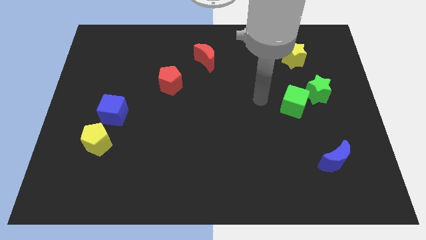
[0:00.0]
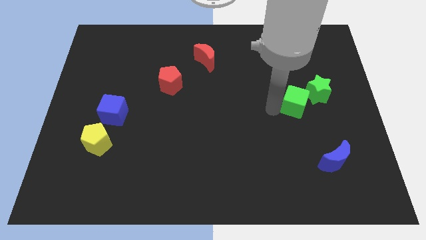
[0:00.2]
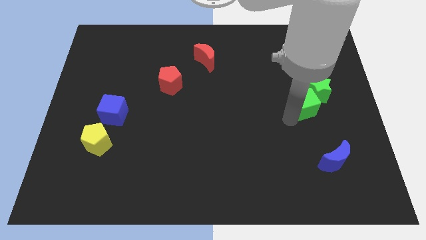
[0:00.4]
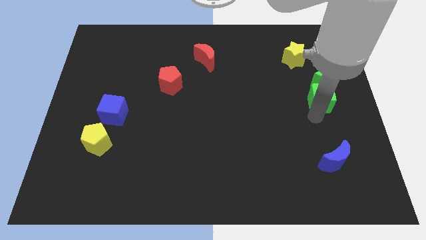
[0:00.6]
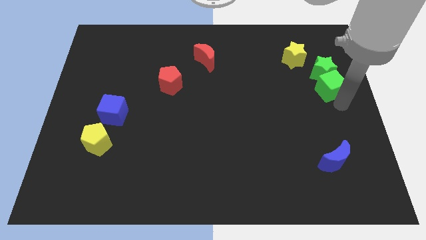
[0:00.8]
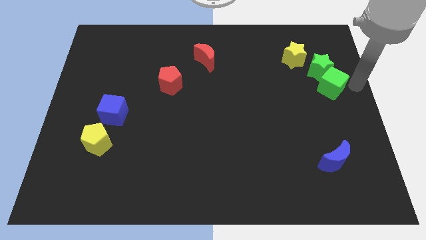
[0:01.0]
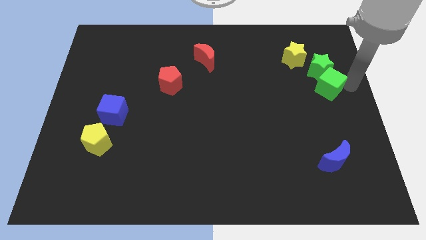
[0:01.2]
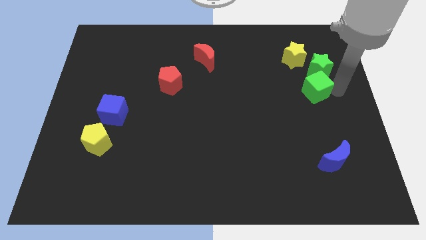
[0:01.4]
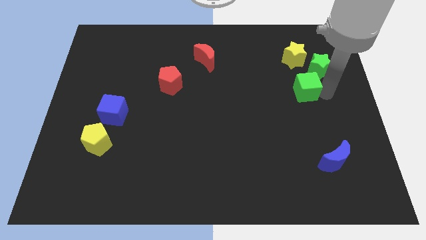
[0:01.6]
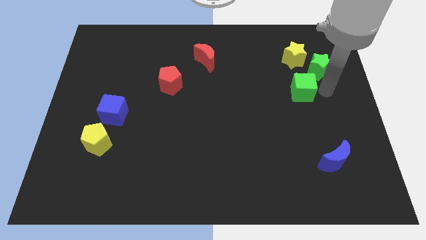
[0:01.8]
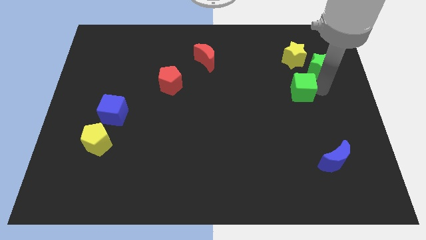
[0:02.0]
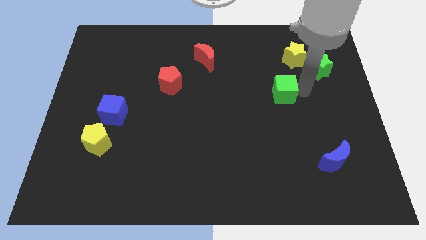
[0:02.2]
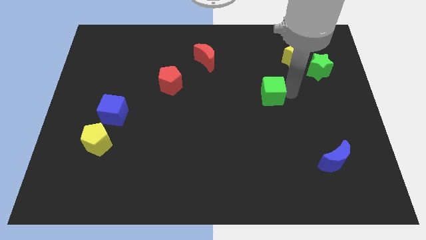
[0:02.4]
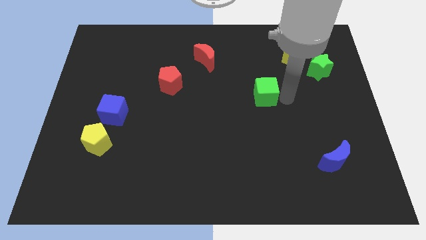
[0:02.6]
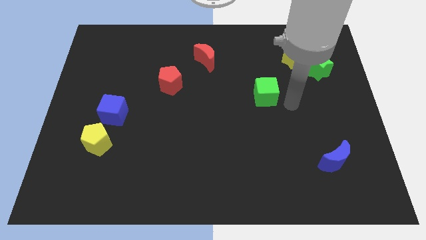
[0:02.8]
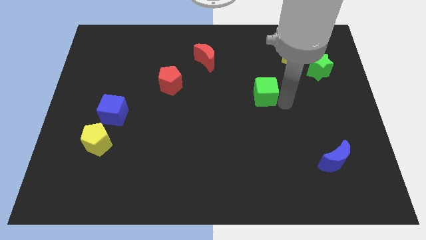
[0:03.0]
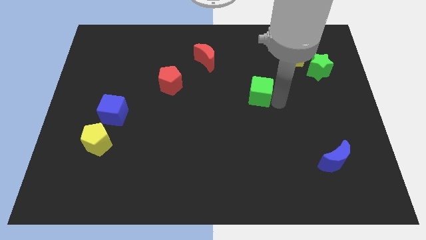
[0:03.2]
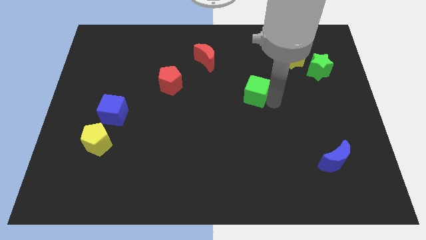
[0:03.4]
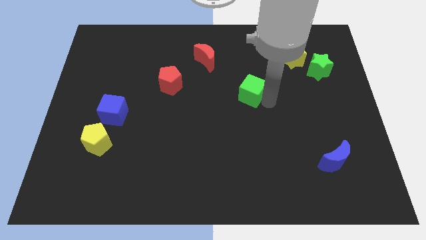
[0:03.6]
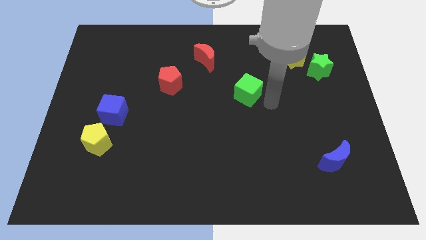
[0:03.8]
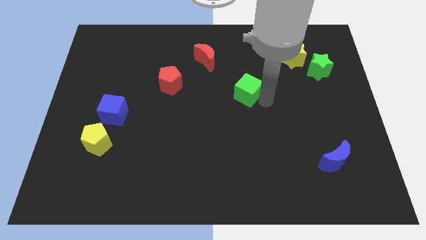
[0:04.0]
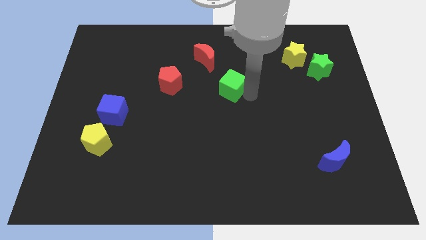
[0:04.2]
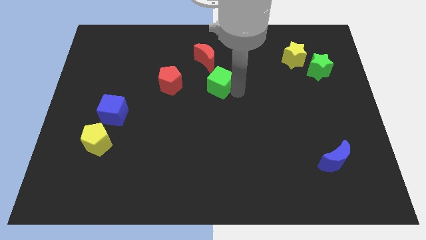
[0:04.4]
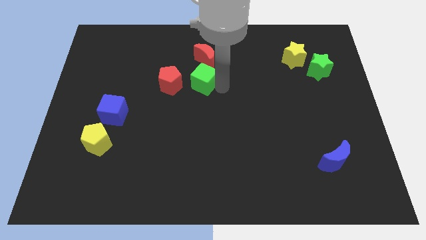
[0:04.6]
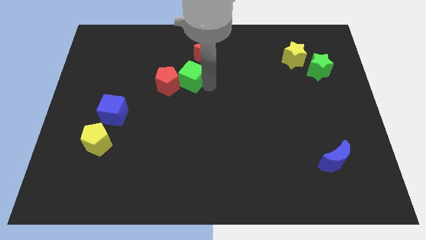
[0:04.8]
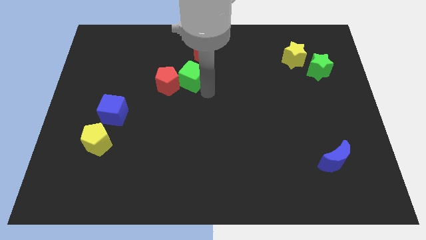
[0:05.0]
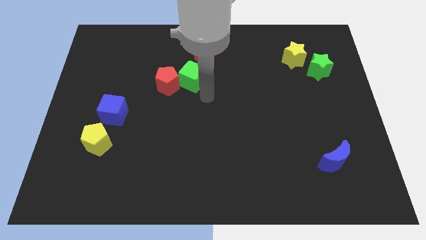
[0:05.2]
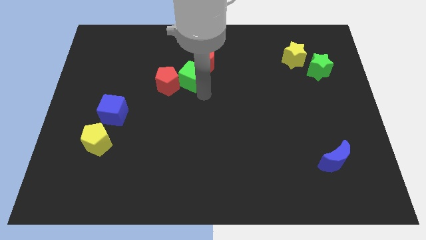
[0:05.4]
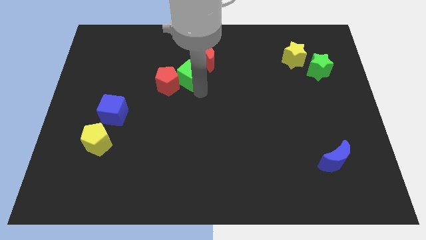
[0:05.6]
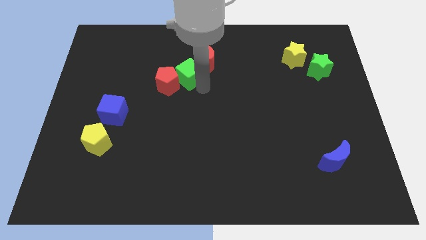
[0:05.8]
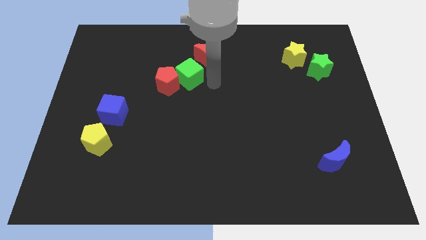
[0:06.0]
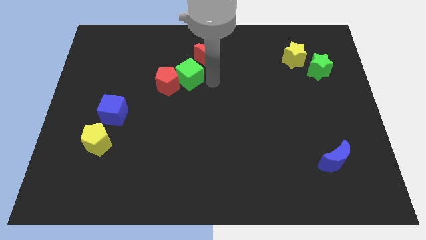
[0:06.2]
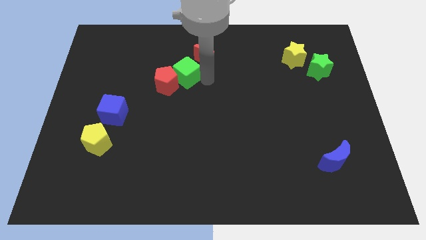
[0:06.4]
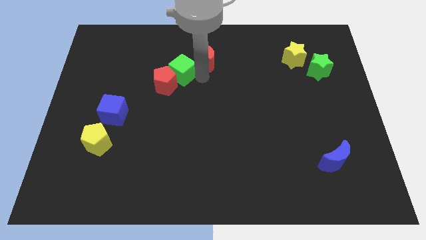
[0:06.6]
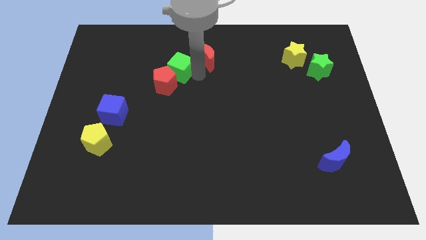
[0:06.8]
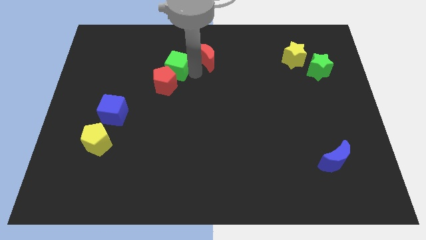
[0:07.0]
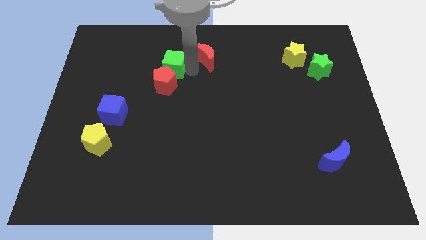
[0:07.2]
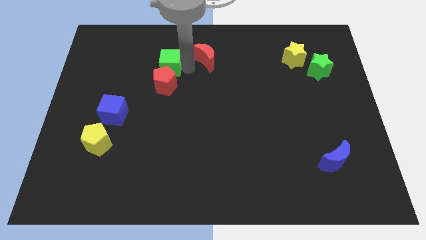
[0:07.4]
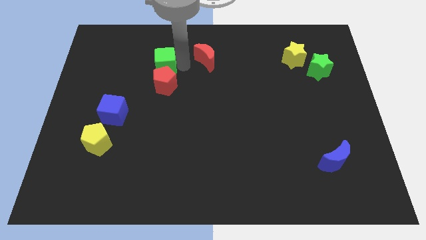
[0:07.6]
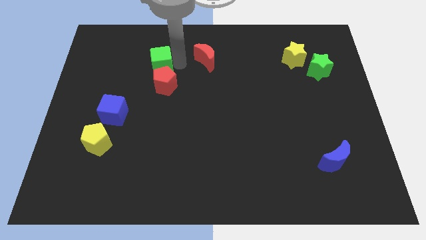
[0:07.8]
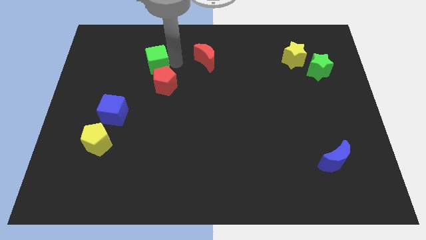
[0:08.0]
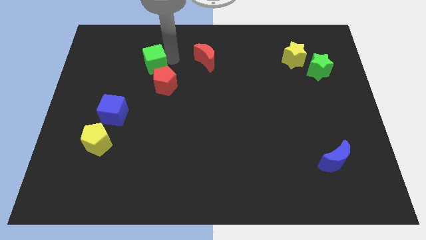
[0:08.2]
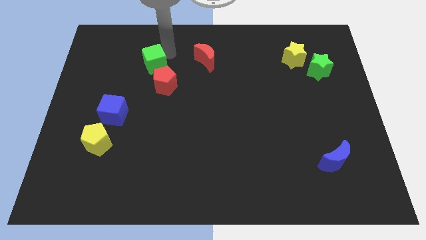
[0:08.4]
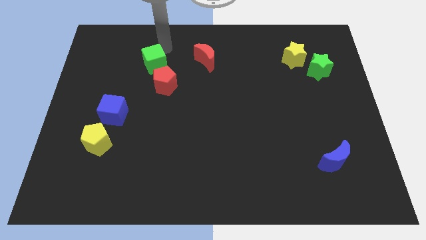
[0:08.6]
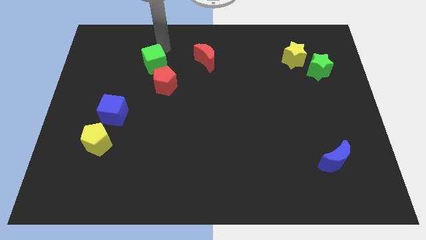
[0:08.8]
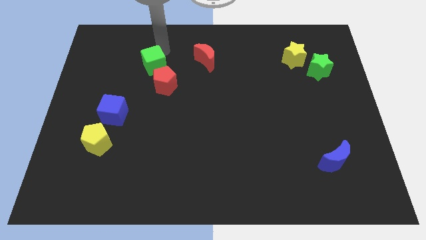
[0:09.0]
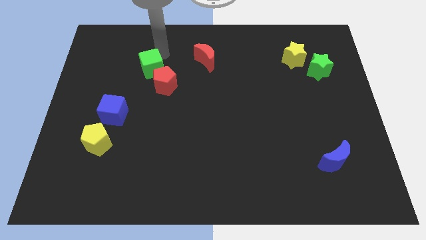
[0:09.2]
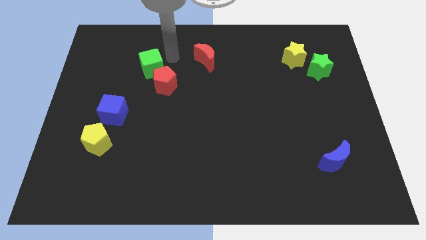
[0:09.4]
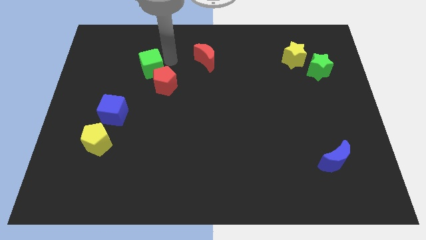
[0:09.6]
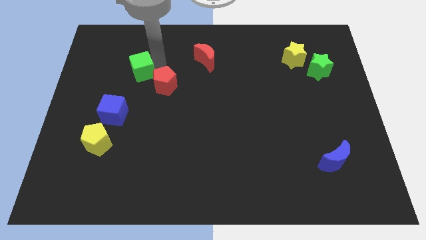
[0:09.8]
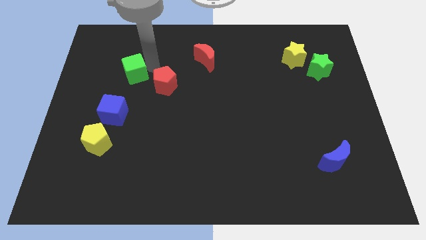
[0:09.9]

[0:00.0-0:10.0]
push the green cube to the top side of the blue cube

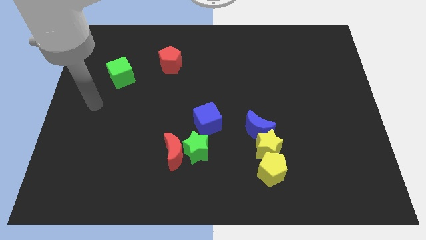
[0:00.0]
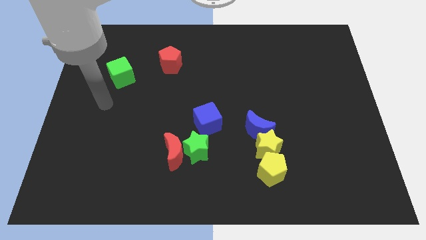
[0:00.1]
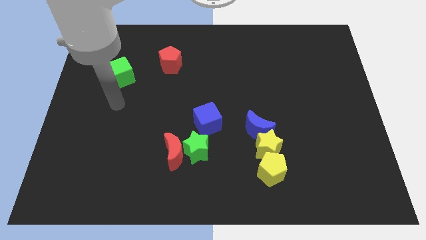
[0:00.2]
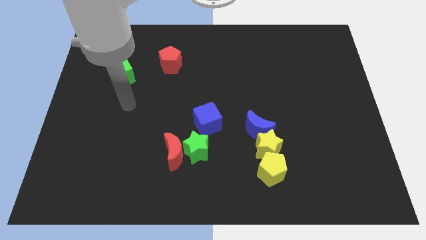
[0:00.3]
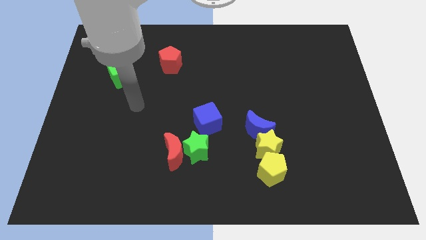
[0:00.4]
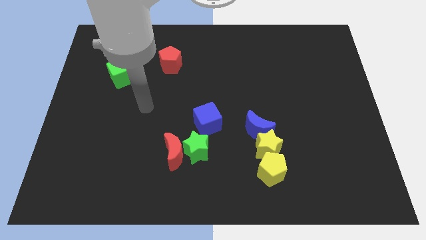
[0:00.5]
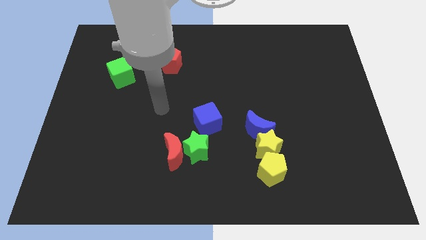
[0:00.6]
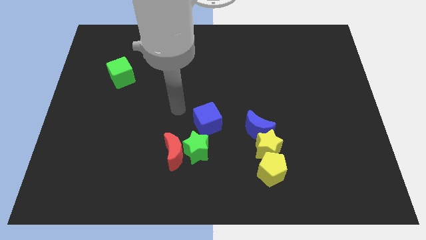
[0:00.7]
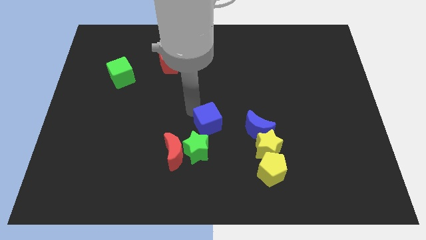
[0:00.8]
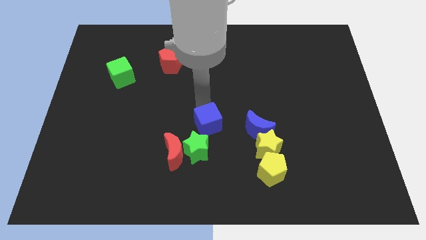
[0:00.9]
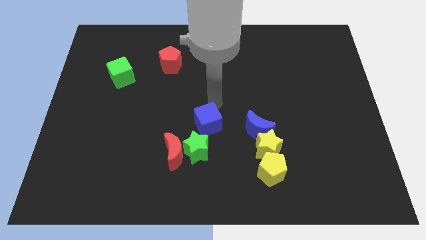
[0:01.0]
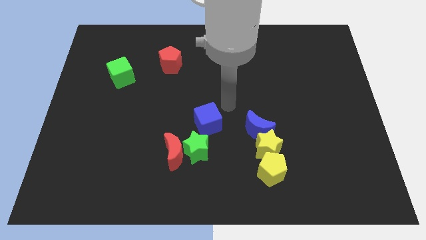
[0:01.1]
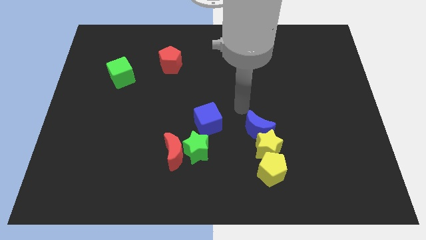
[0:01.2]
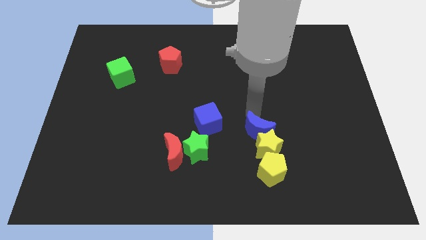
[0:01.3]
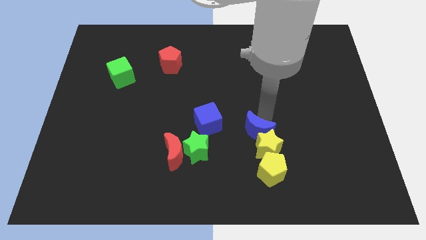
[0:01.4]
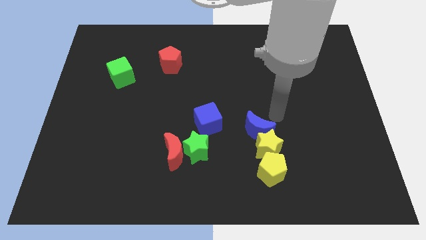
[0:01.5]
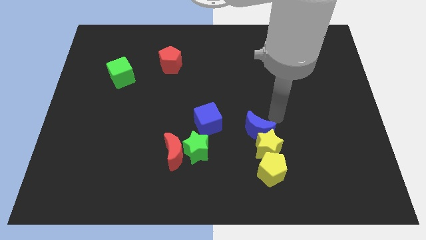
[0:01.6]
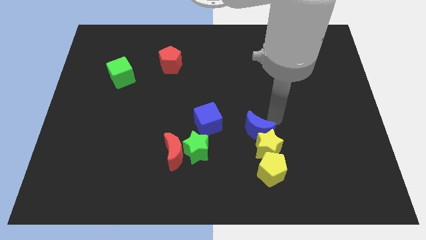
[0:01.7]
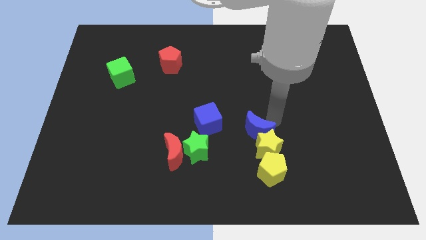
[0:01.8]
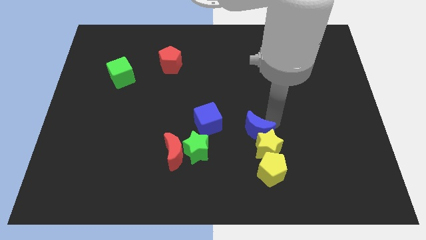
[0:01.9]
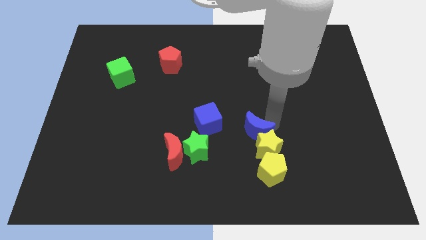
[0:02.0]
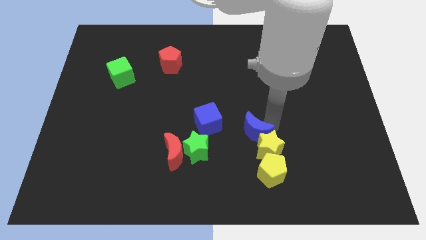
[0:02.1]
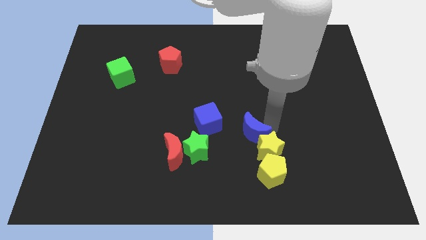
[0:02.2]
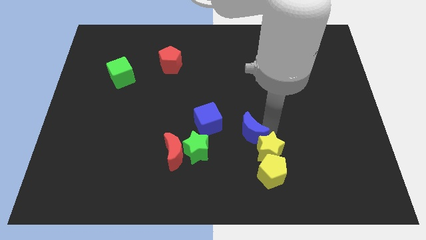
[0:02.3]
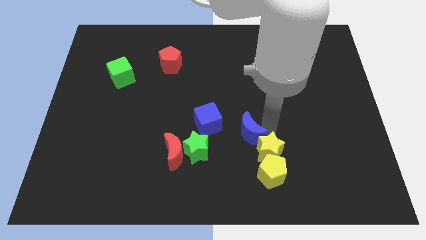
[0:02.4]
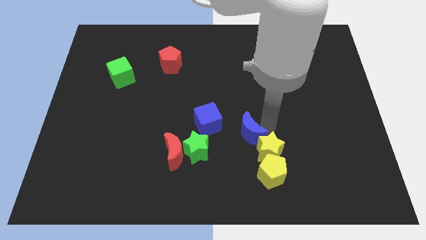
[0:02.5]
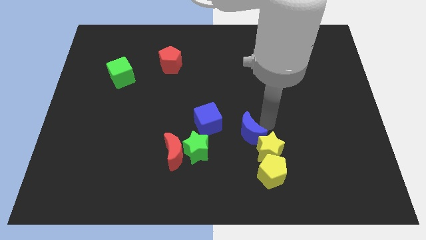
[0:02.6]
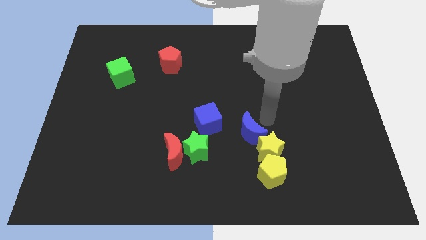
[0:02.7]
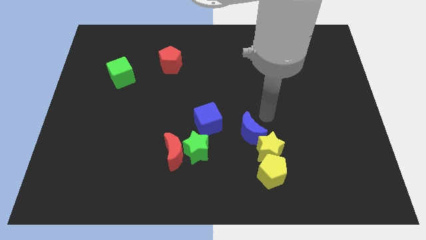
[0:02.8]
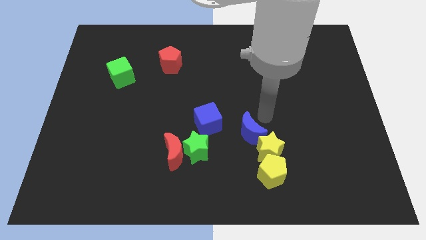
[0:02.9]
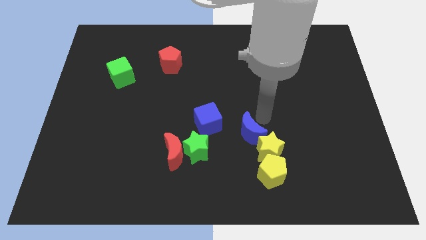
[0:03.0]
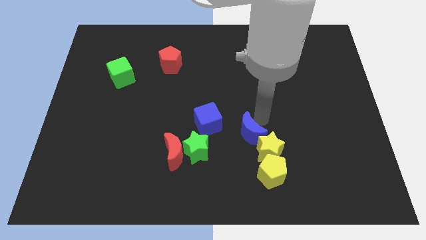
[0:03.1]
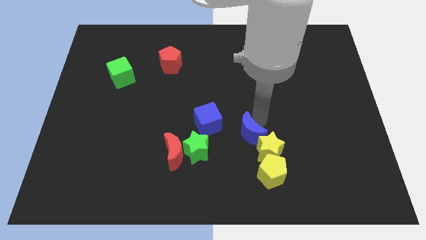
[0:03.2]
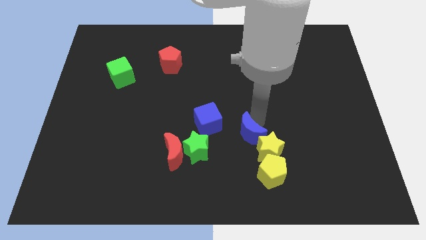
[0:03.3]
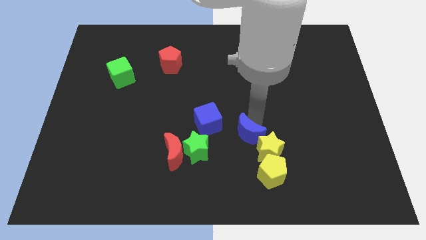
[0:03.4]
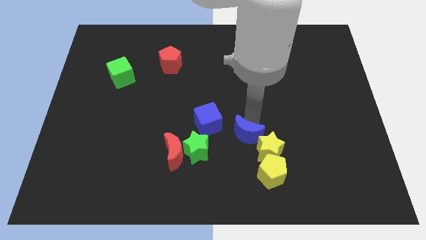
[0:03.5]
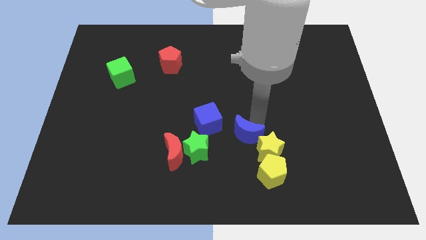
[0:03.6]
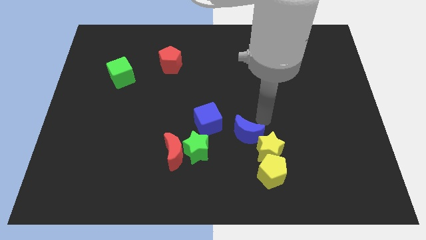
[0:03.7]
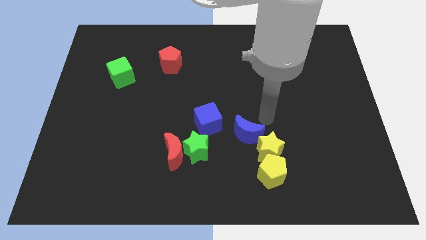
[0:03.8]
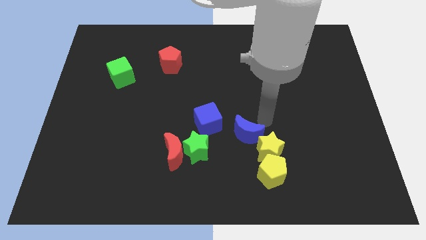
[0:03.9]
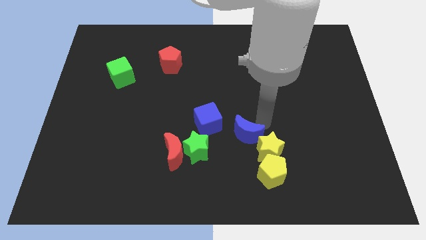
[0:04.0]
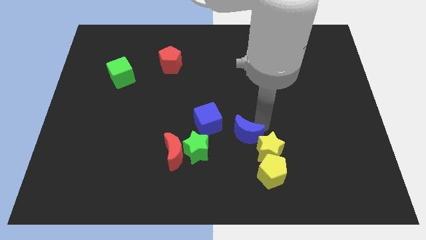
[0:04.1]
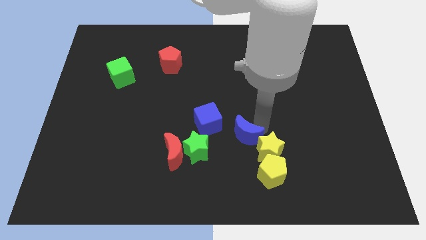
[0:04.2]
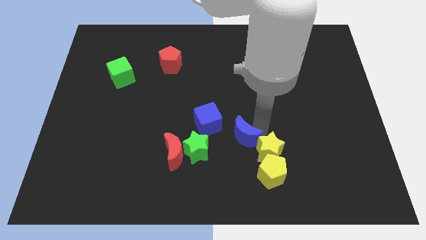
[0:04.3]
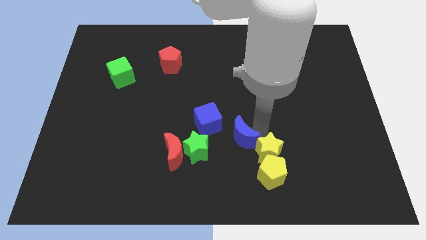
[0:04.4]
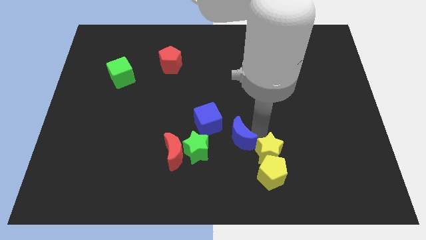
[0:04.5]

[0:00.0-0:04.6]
move the blue moon right of the red moon
